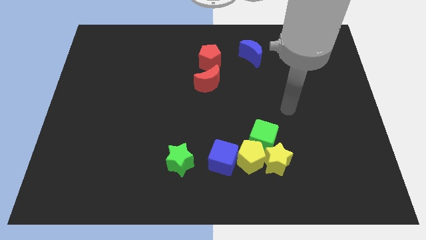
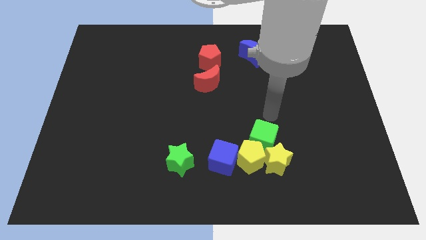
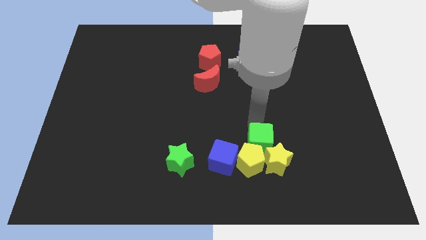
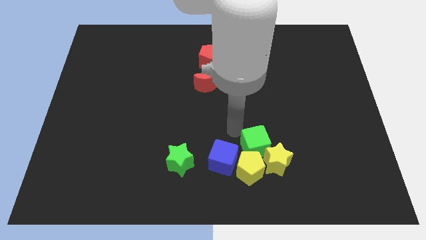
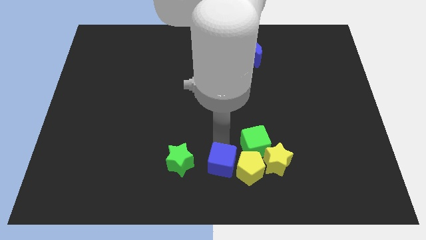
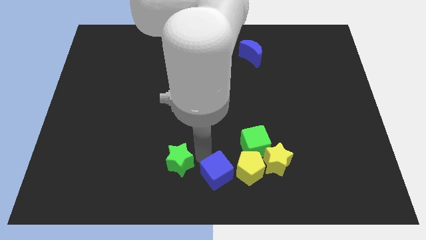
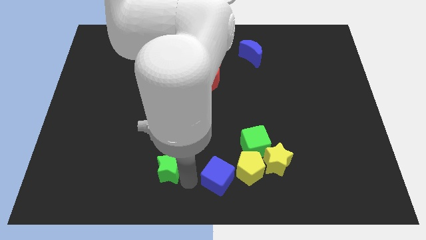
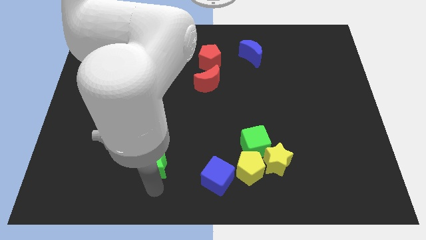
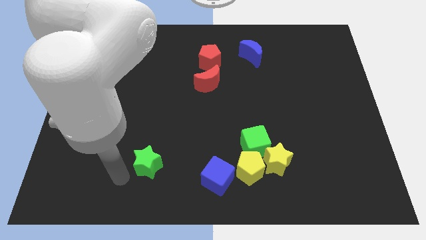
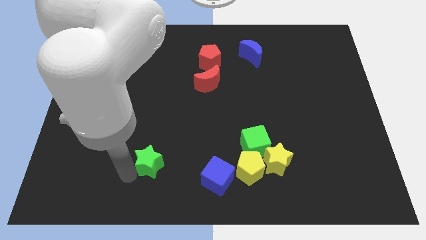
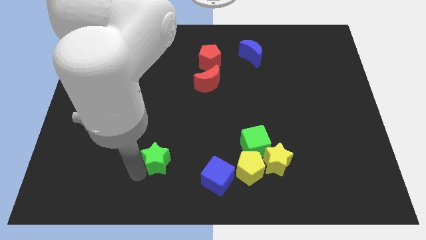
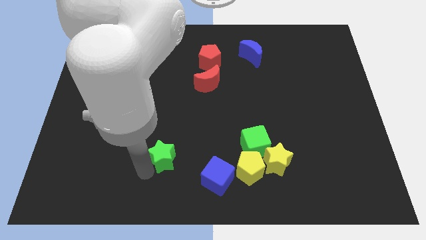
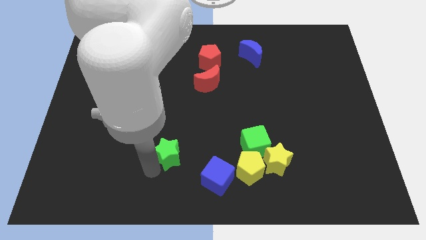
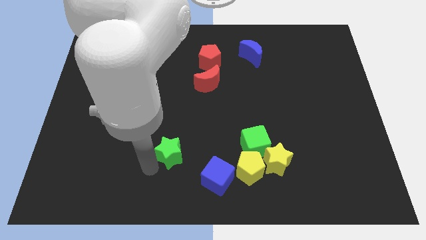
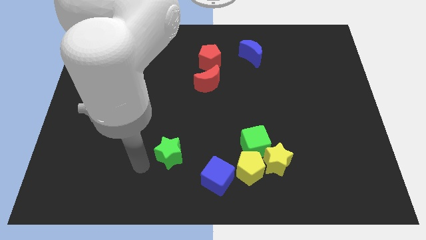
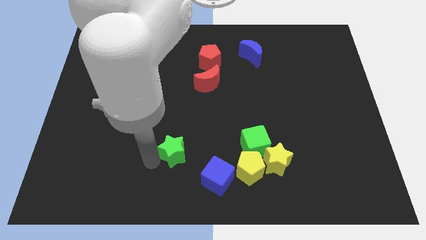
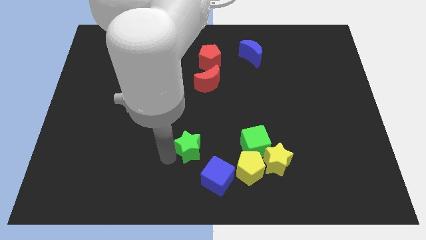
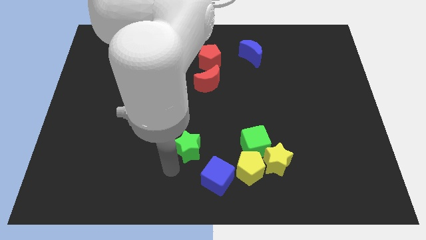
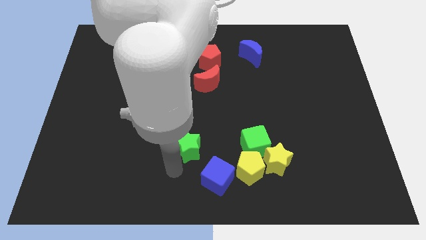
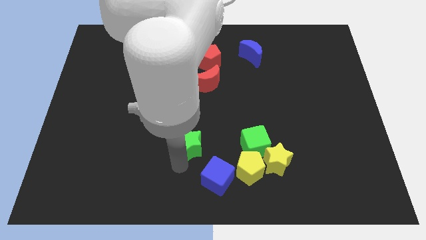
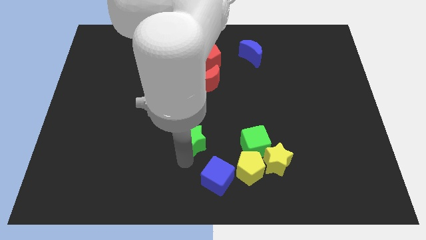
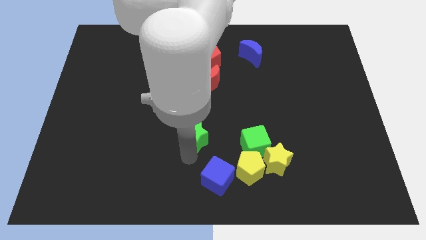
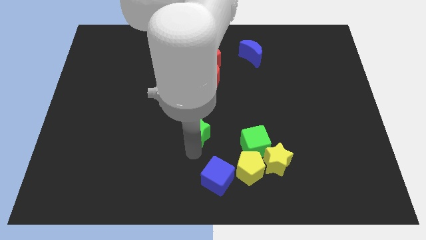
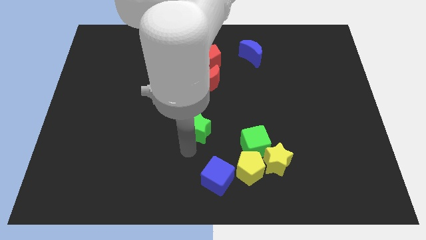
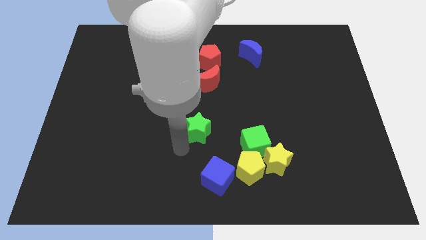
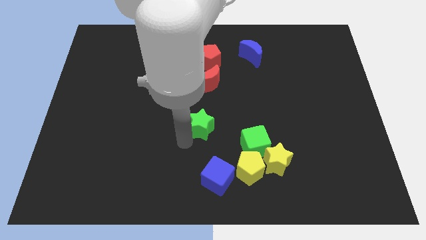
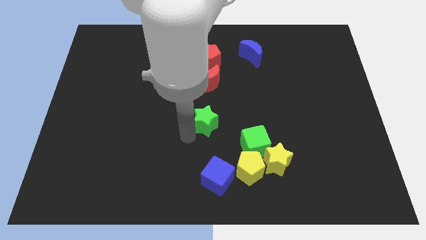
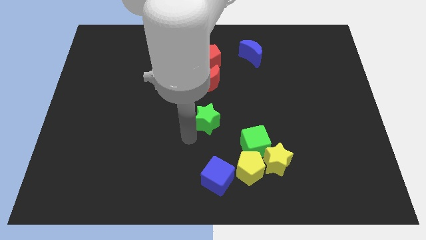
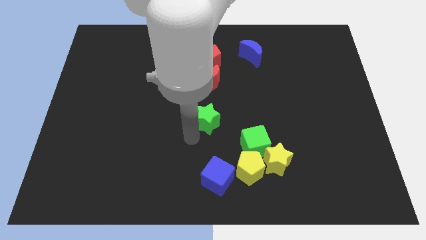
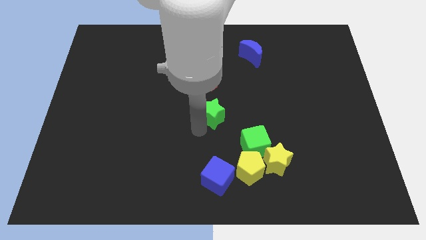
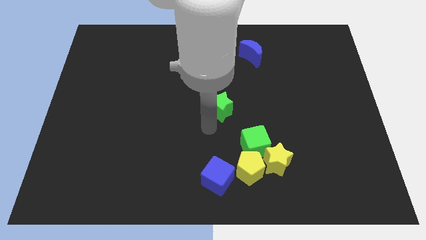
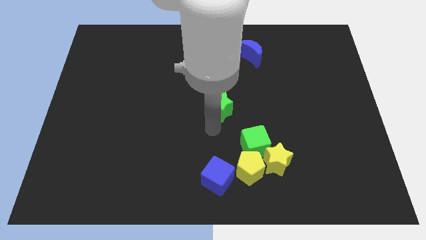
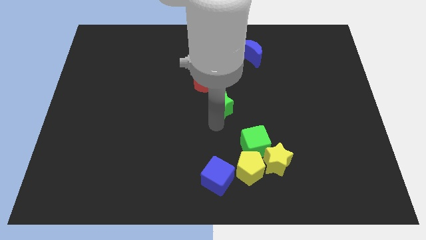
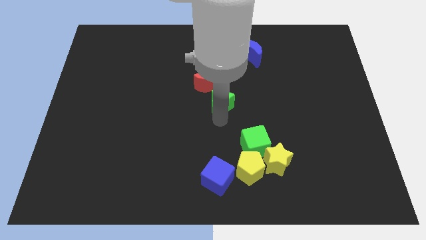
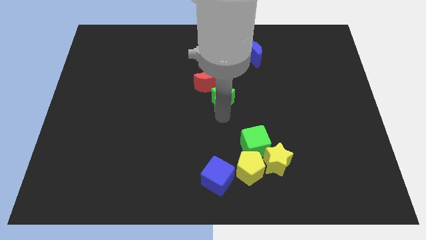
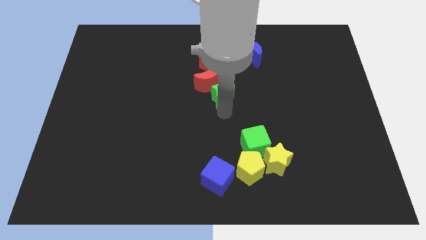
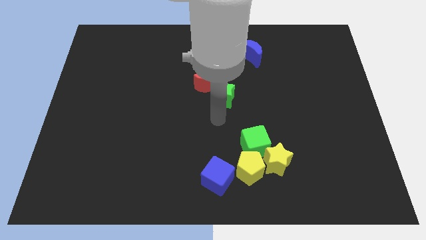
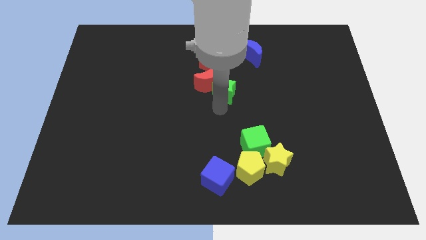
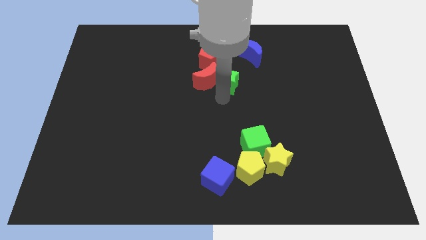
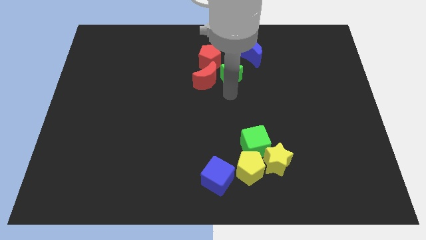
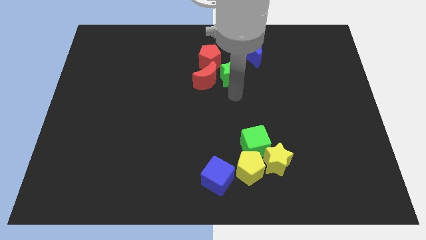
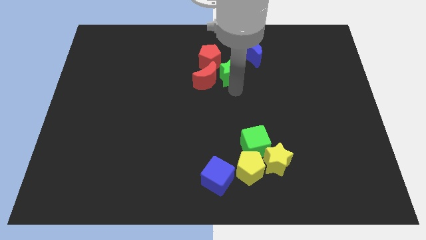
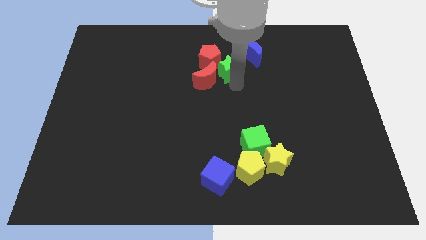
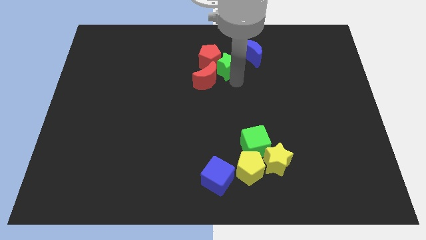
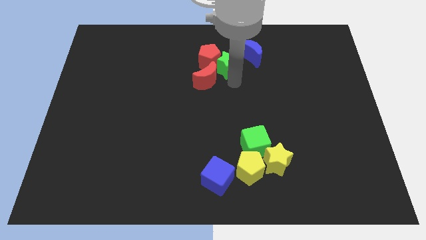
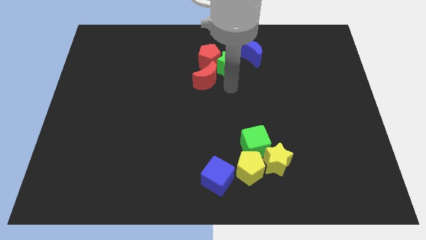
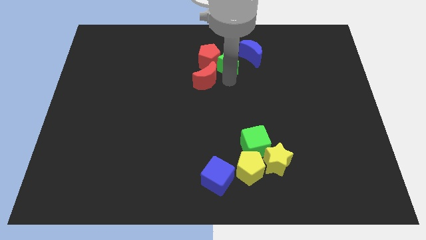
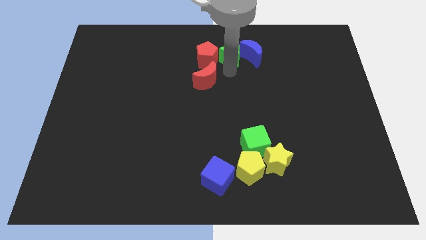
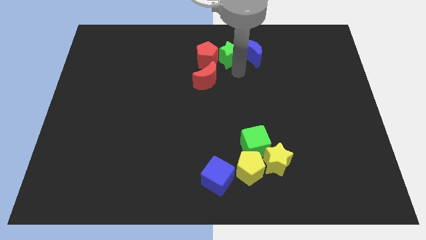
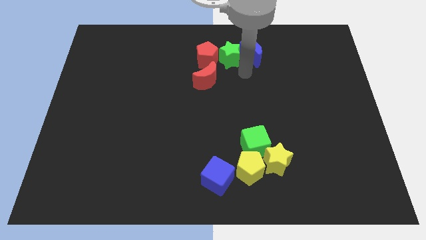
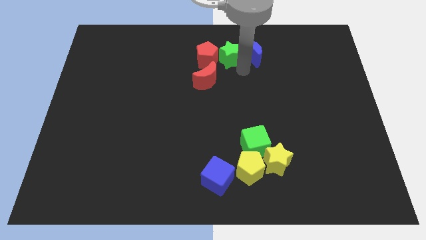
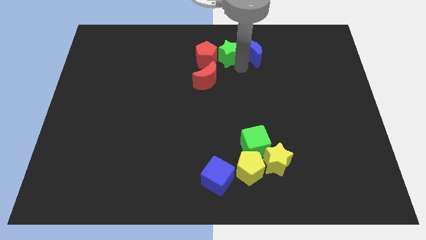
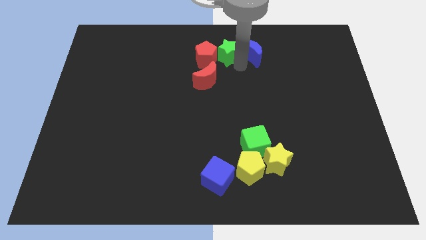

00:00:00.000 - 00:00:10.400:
move the green star to the towards your base

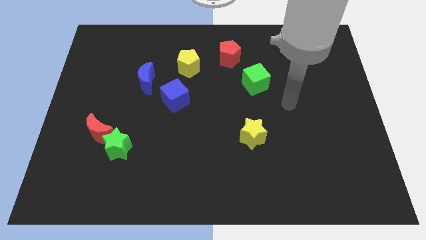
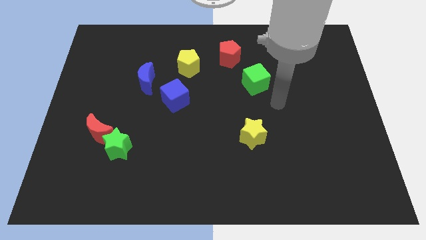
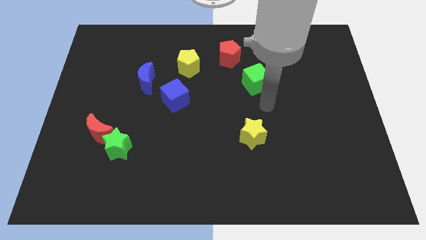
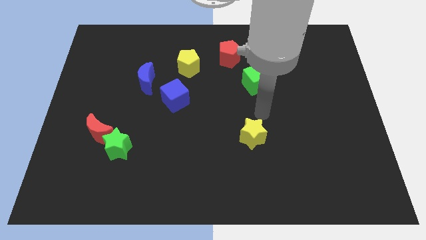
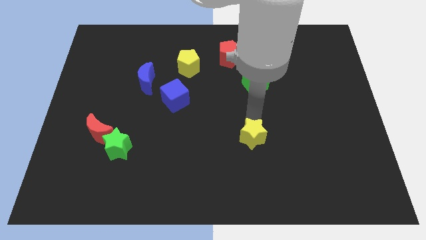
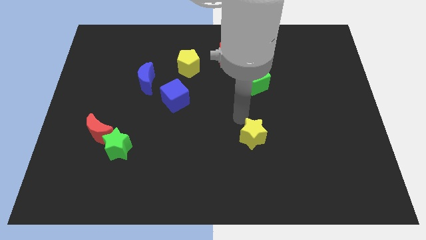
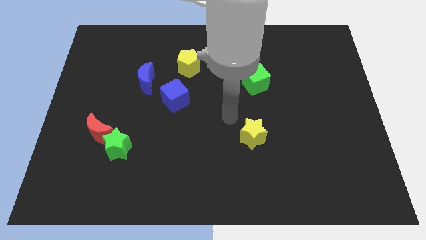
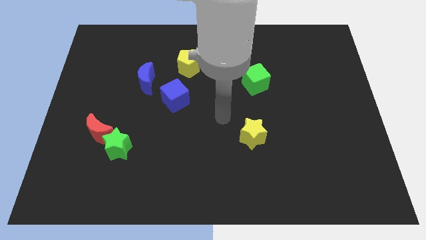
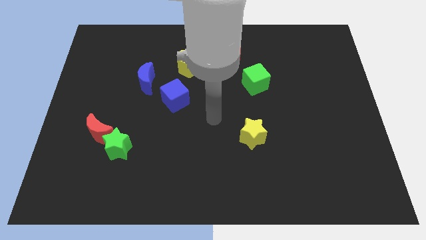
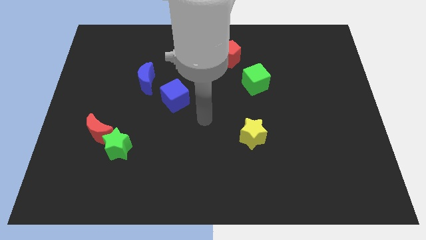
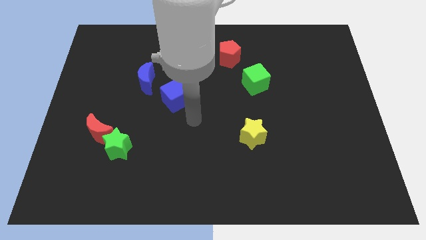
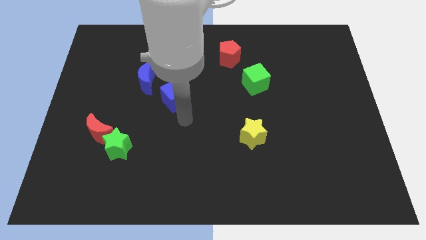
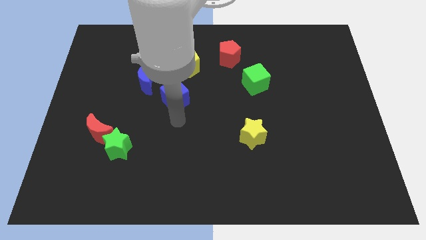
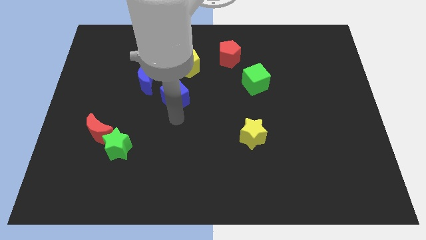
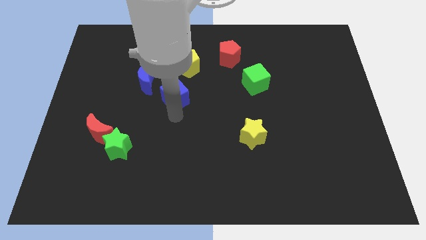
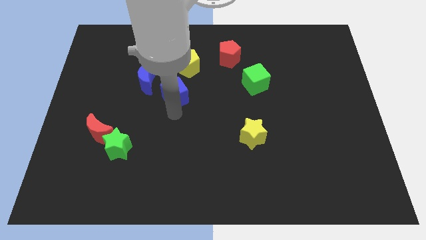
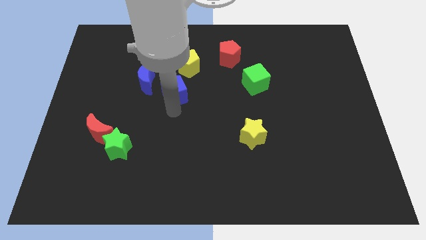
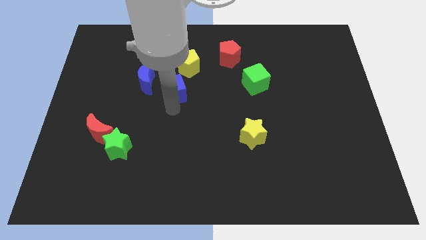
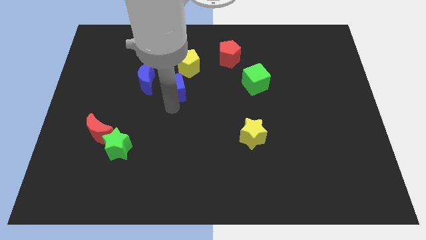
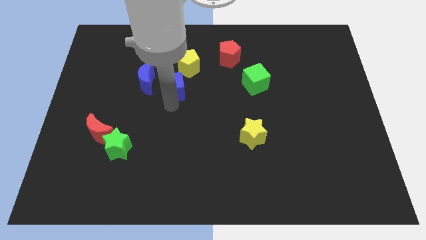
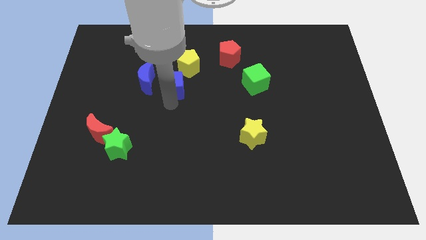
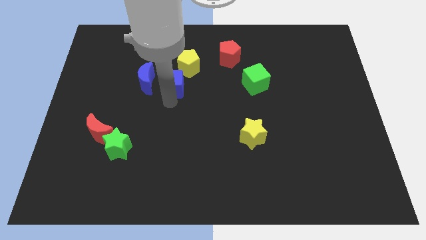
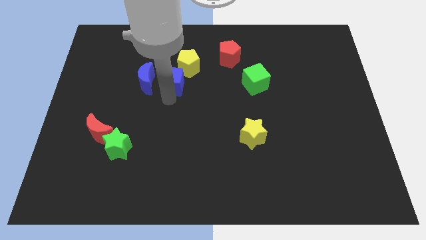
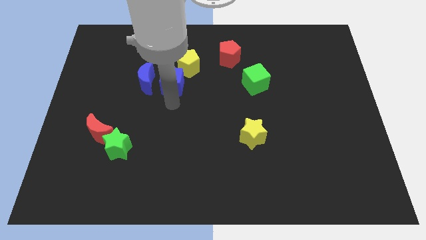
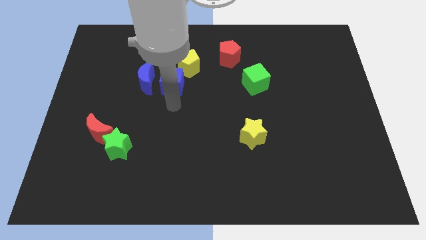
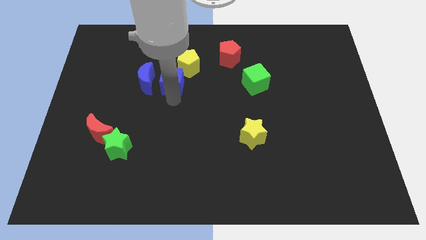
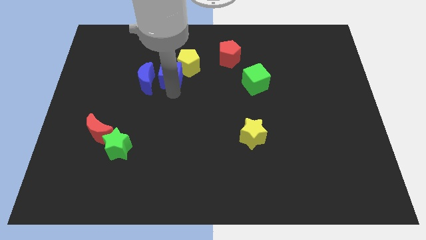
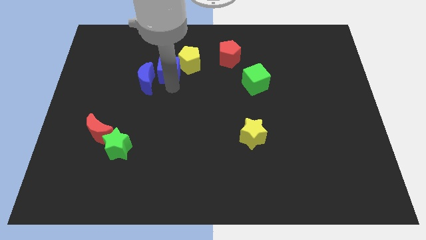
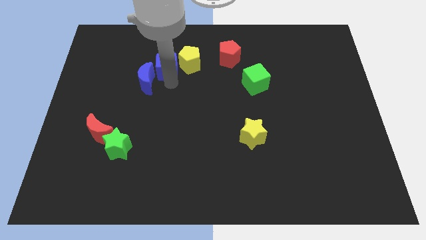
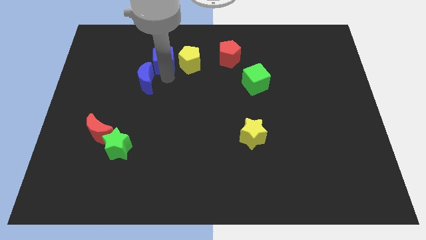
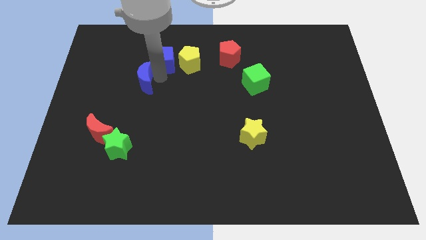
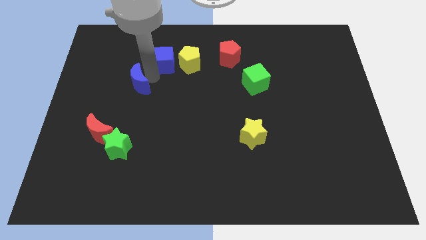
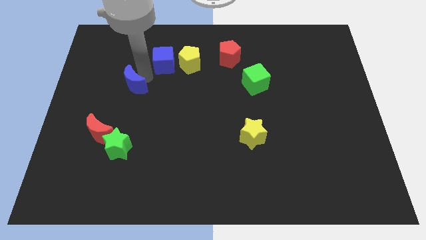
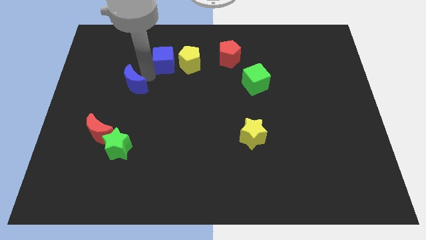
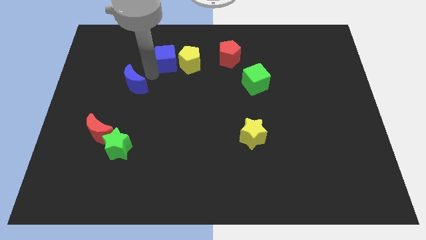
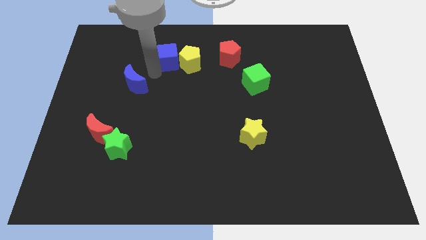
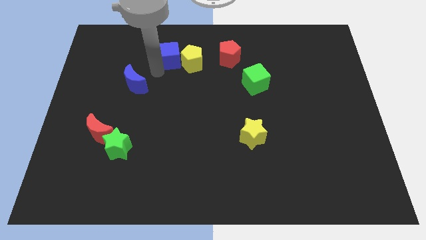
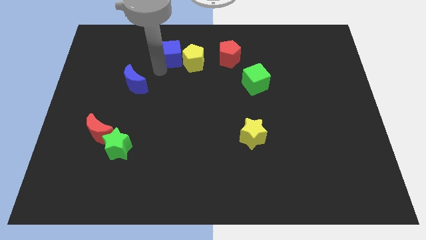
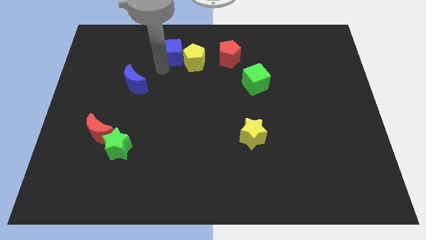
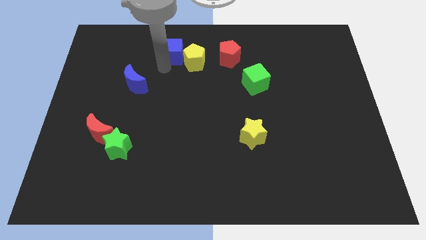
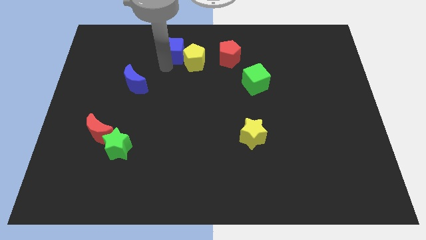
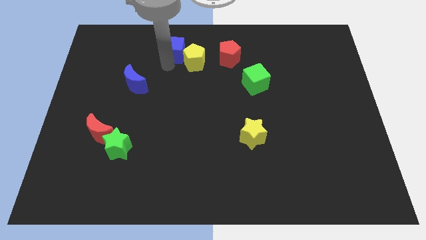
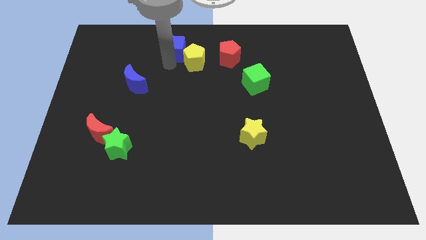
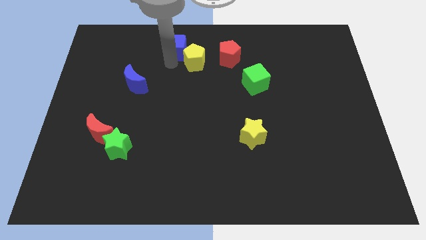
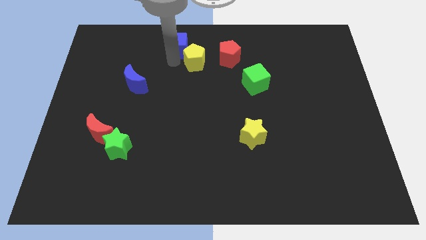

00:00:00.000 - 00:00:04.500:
move the blue cube to the top
